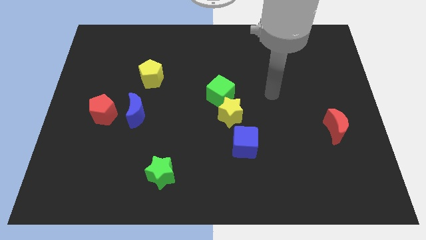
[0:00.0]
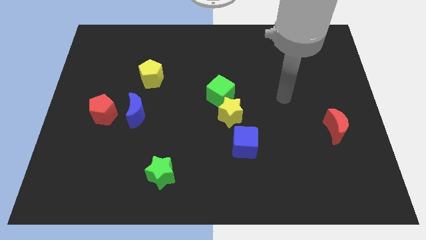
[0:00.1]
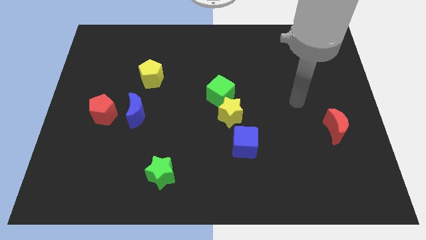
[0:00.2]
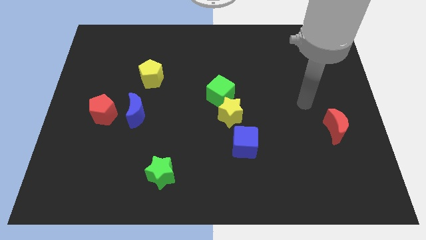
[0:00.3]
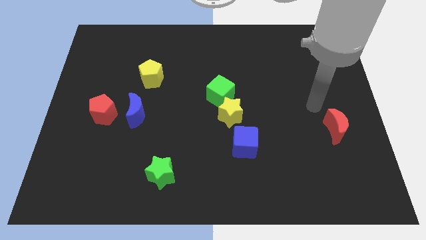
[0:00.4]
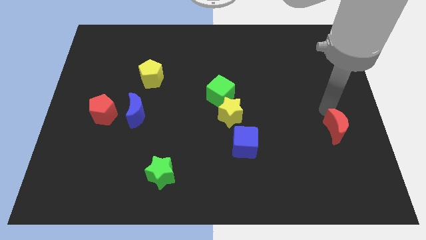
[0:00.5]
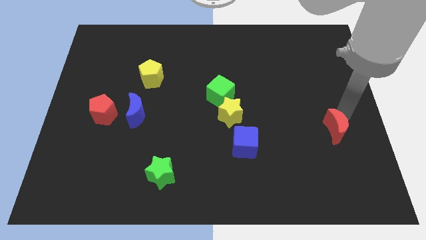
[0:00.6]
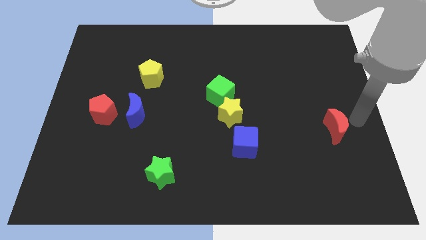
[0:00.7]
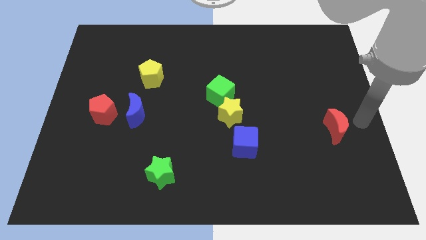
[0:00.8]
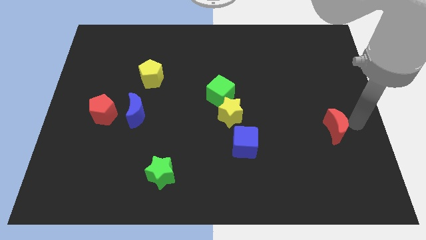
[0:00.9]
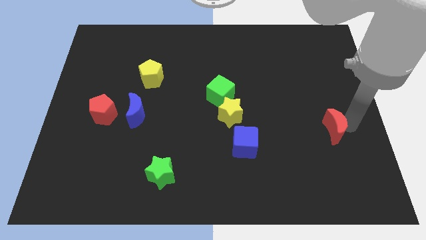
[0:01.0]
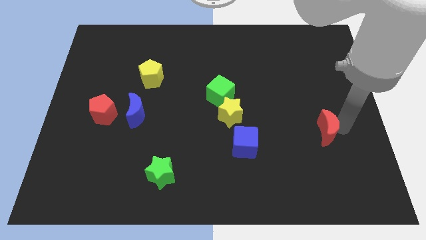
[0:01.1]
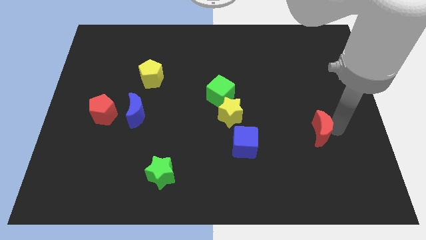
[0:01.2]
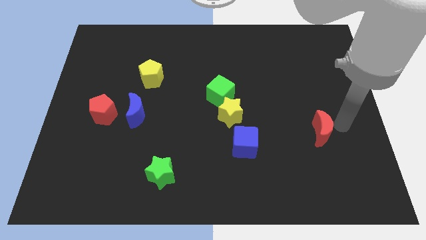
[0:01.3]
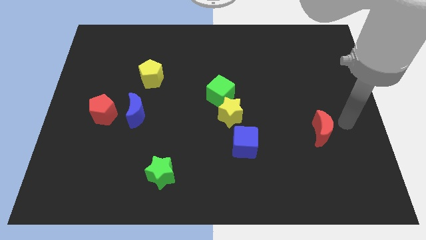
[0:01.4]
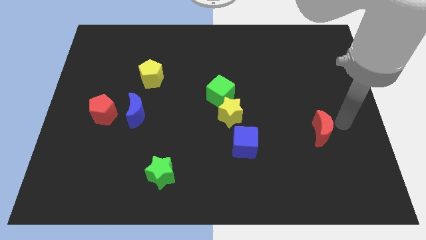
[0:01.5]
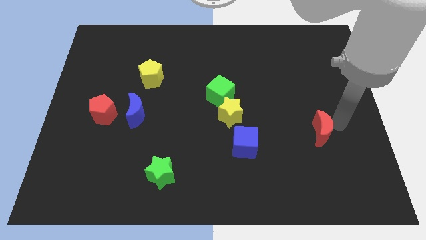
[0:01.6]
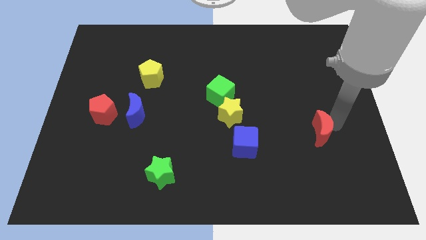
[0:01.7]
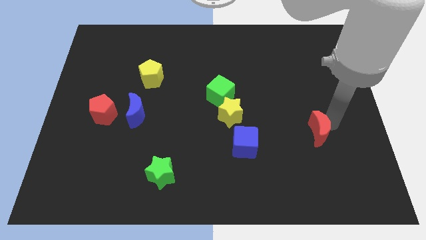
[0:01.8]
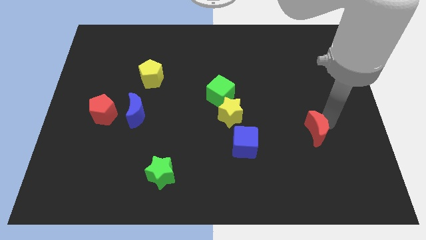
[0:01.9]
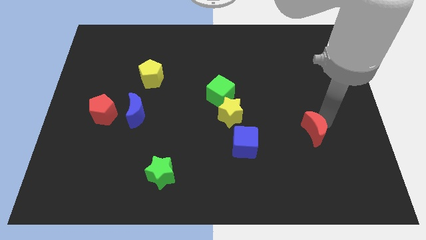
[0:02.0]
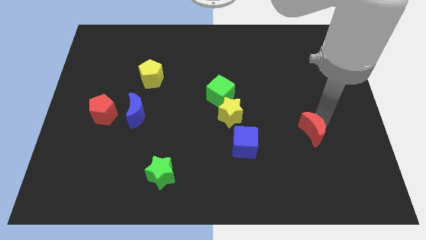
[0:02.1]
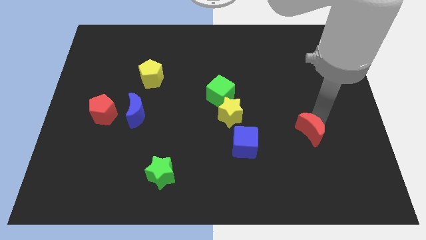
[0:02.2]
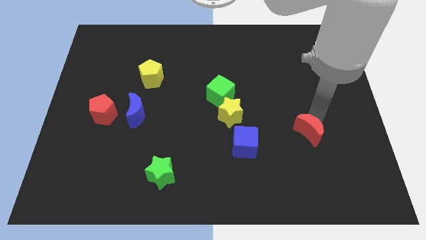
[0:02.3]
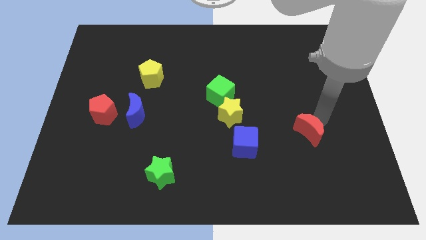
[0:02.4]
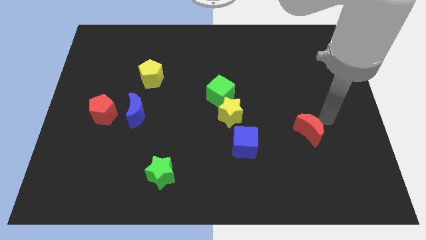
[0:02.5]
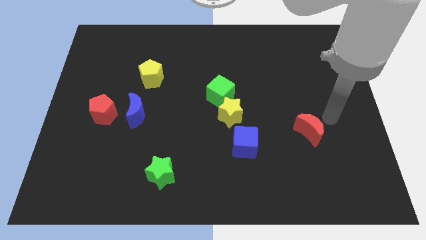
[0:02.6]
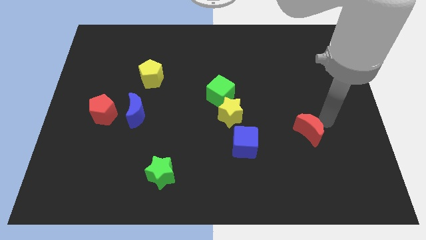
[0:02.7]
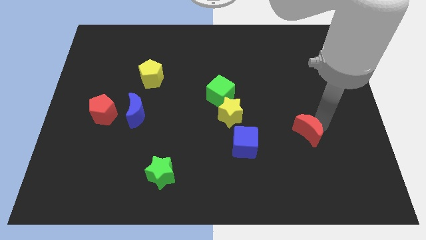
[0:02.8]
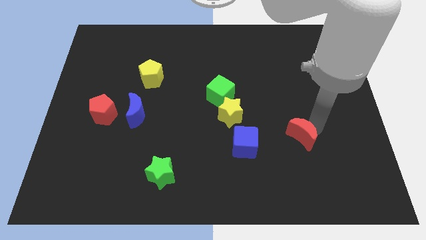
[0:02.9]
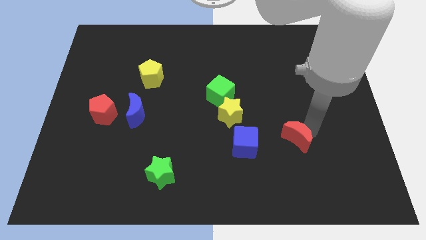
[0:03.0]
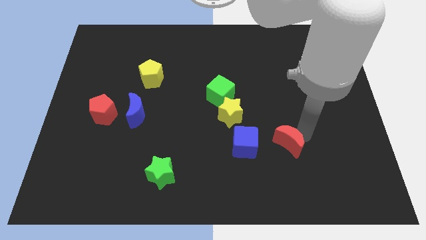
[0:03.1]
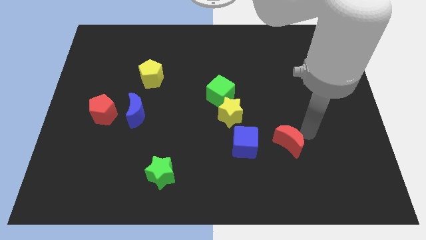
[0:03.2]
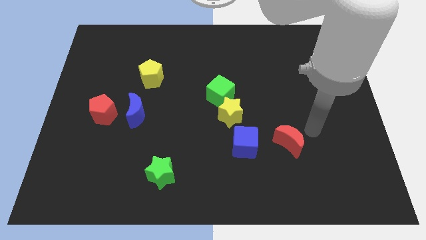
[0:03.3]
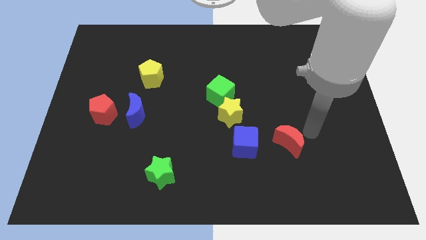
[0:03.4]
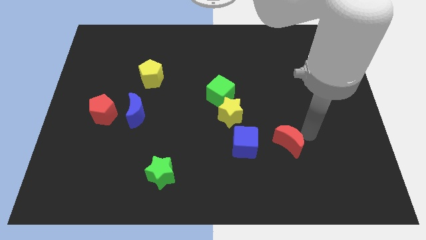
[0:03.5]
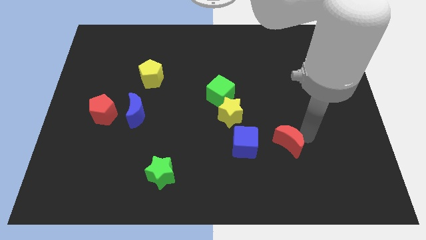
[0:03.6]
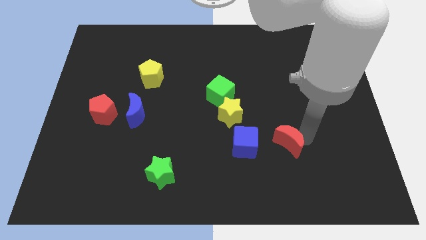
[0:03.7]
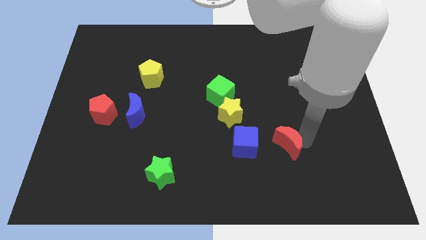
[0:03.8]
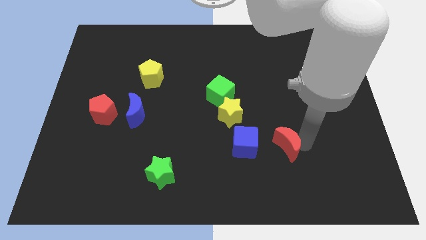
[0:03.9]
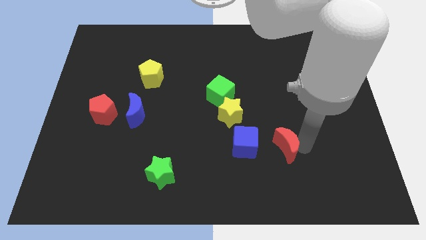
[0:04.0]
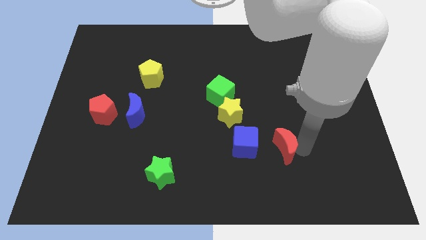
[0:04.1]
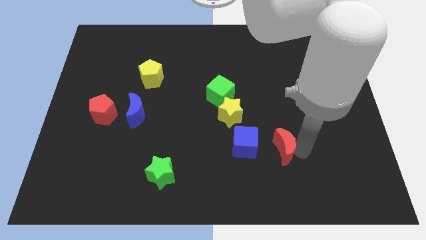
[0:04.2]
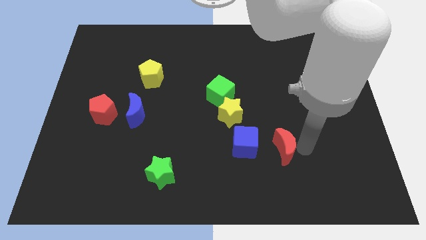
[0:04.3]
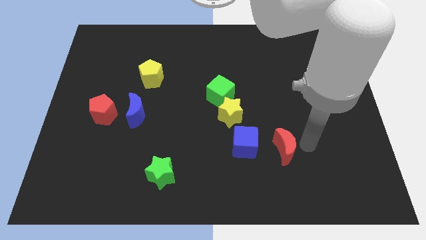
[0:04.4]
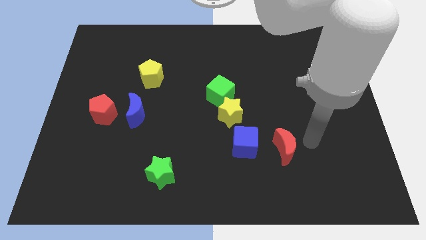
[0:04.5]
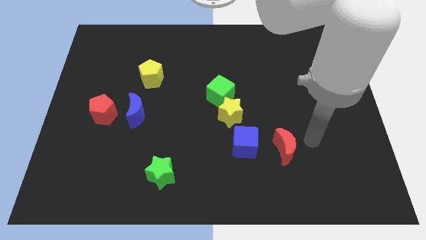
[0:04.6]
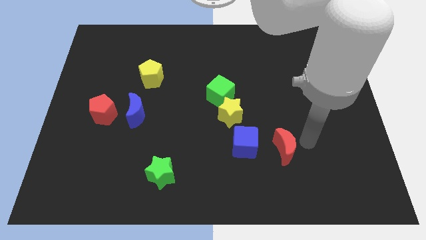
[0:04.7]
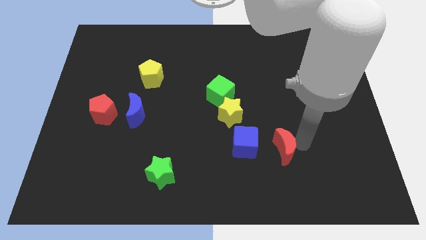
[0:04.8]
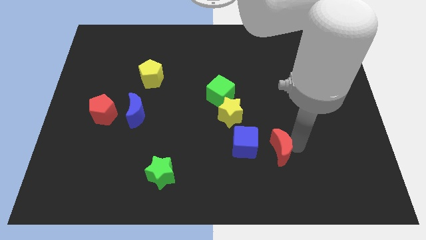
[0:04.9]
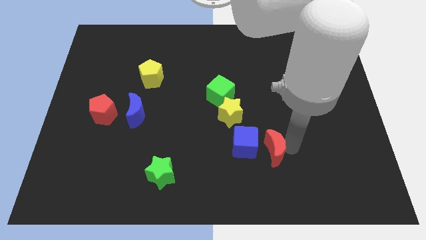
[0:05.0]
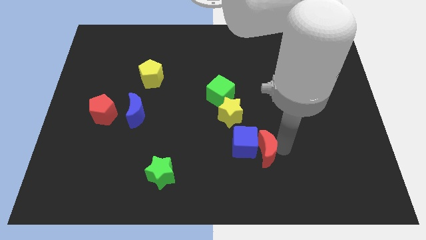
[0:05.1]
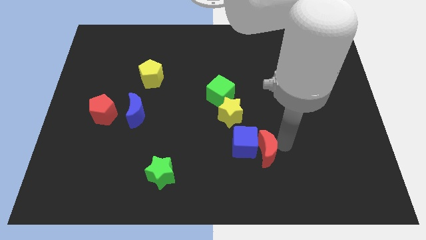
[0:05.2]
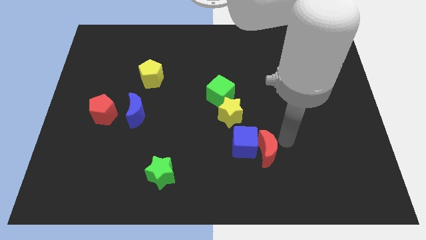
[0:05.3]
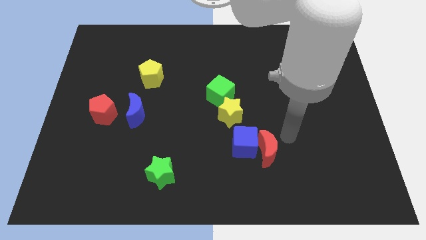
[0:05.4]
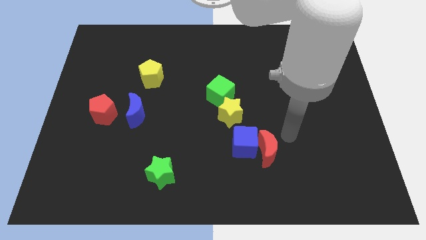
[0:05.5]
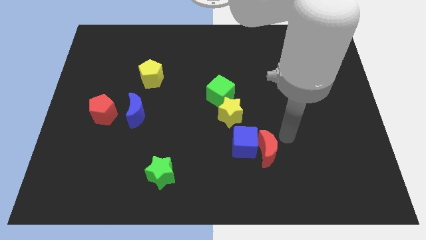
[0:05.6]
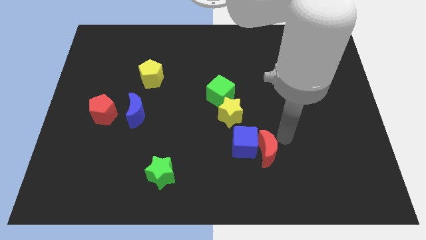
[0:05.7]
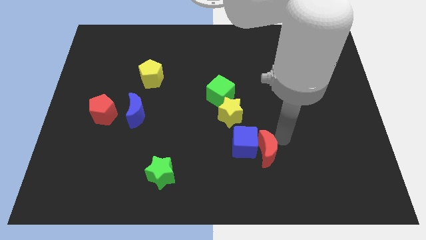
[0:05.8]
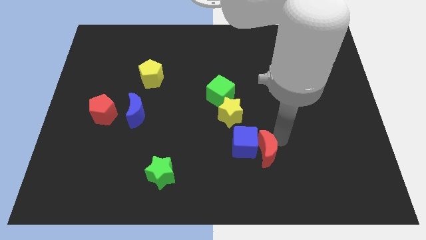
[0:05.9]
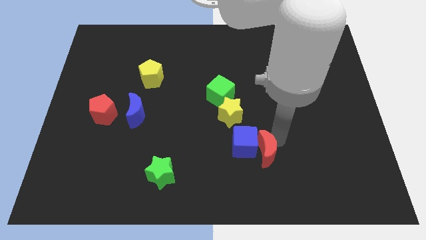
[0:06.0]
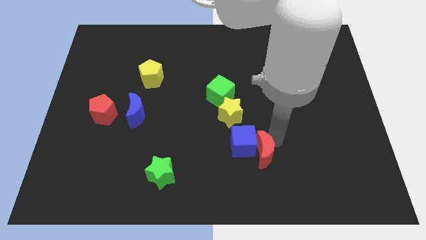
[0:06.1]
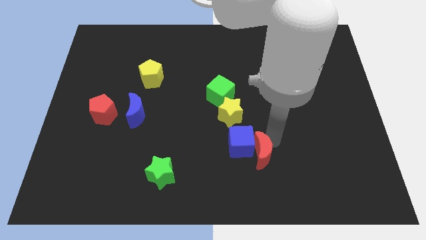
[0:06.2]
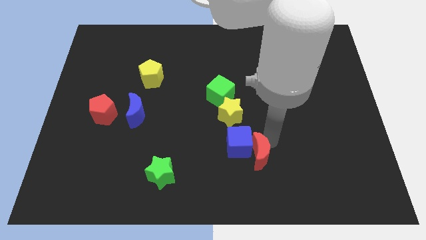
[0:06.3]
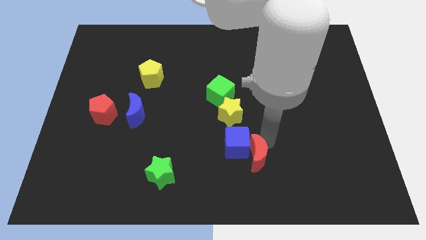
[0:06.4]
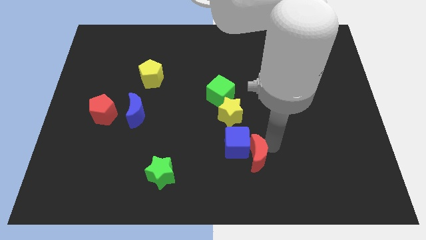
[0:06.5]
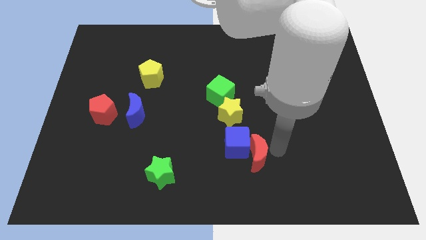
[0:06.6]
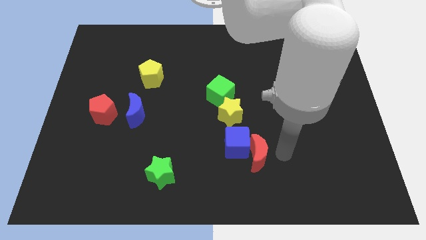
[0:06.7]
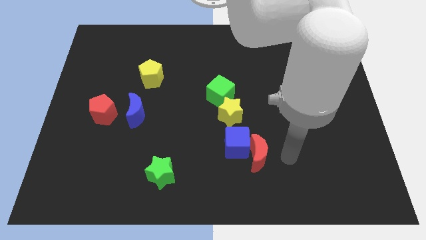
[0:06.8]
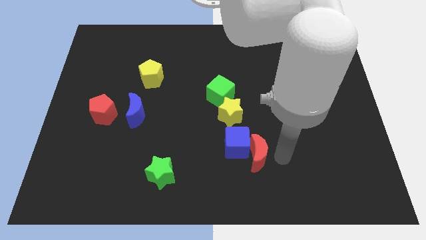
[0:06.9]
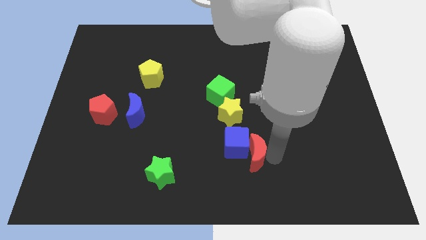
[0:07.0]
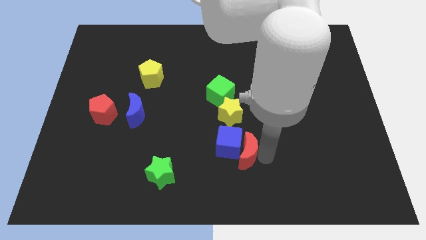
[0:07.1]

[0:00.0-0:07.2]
move the red moon below the yellow star
